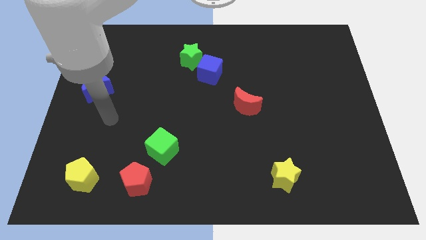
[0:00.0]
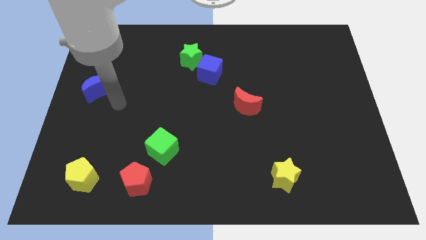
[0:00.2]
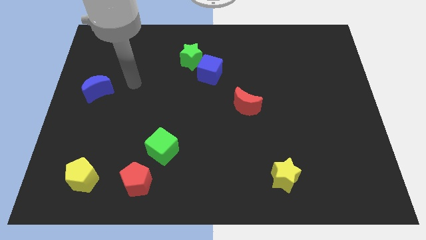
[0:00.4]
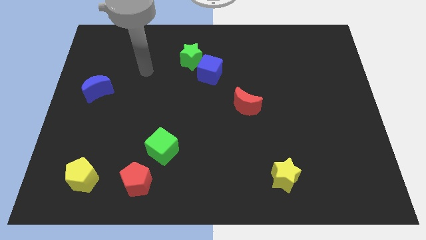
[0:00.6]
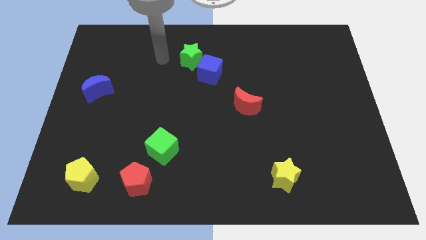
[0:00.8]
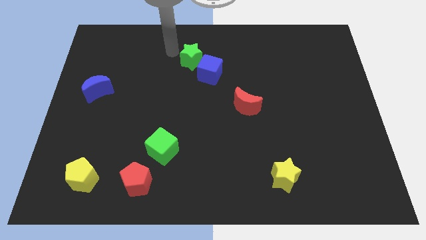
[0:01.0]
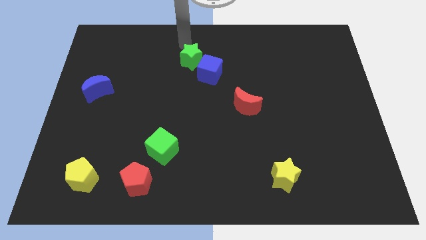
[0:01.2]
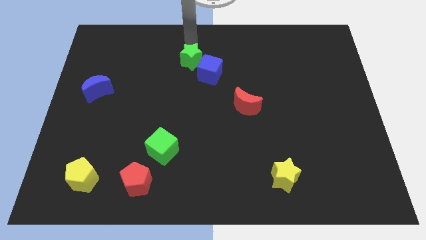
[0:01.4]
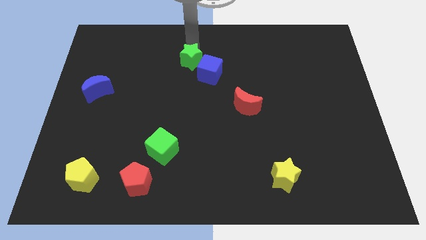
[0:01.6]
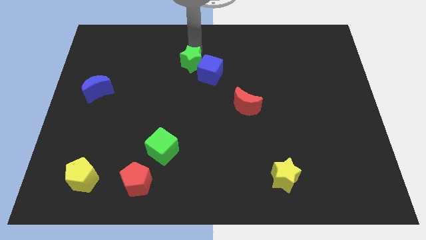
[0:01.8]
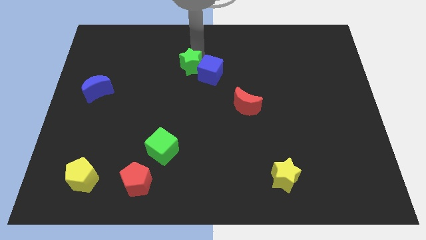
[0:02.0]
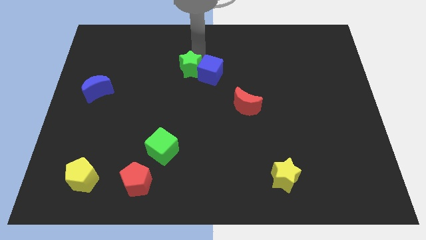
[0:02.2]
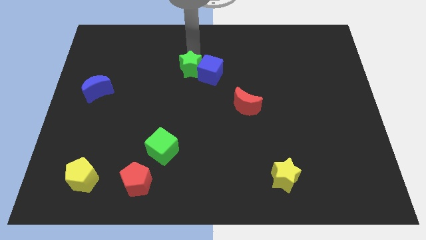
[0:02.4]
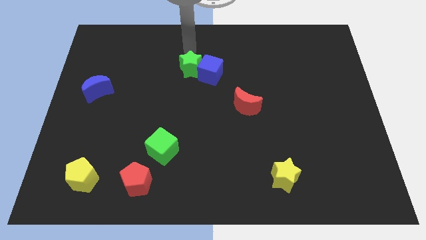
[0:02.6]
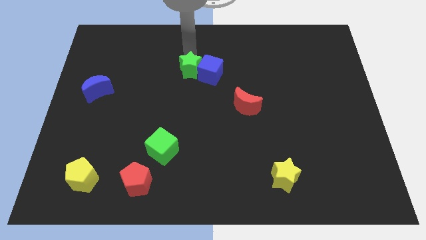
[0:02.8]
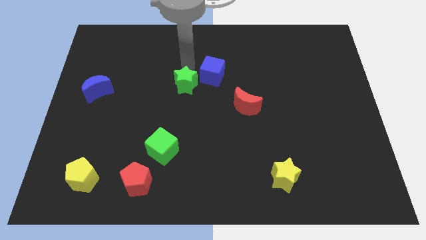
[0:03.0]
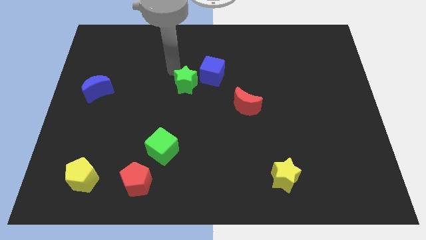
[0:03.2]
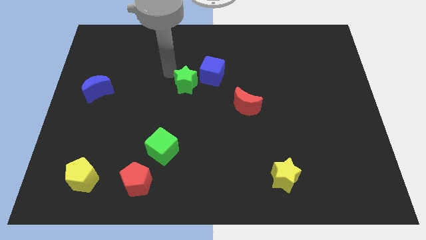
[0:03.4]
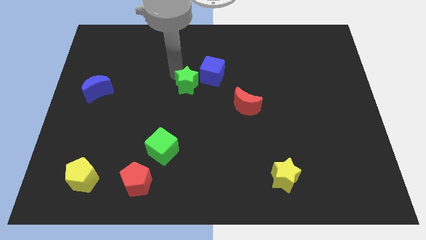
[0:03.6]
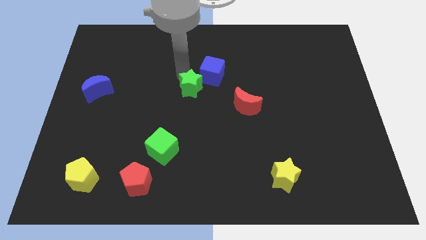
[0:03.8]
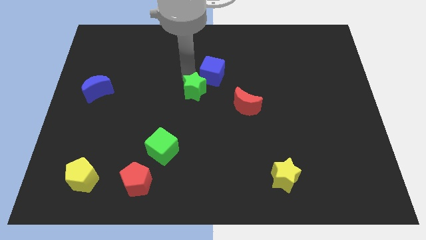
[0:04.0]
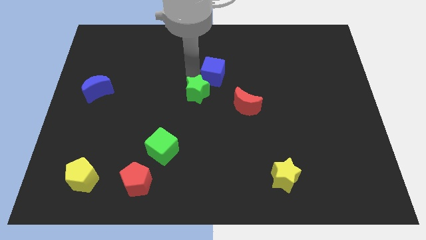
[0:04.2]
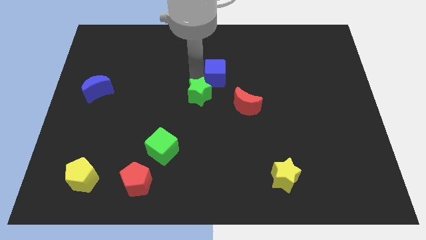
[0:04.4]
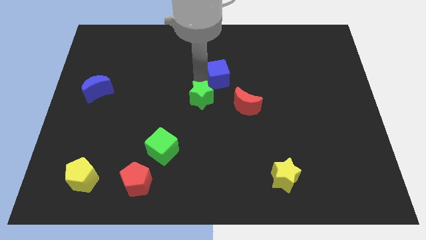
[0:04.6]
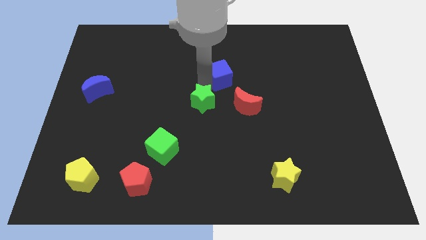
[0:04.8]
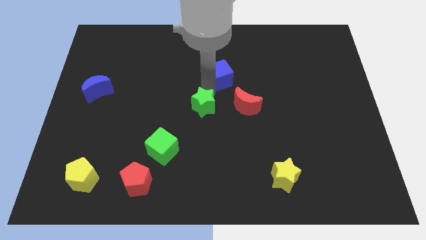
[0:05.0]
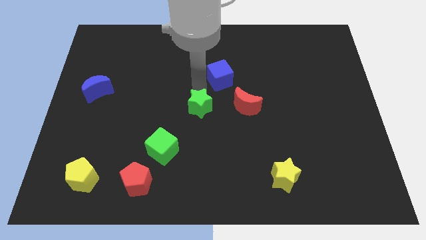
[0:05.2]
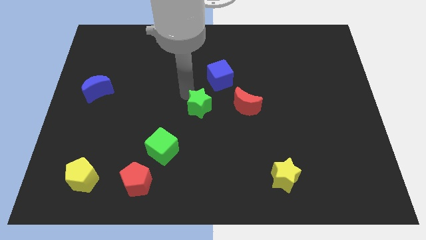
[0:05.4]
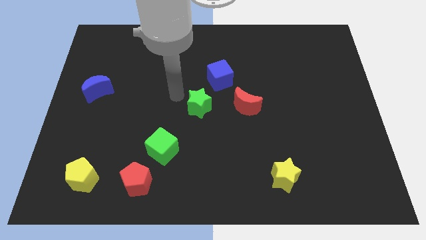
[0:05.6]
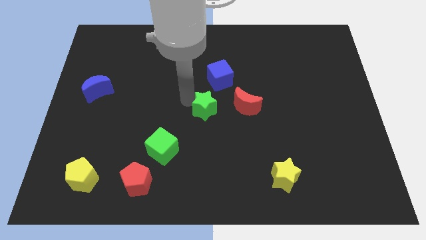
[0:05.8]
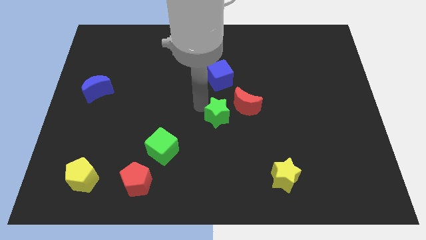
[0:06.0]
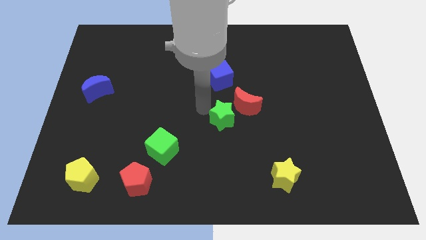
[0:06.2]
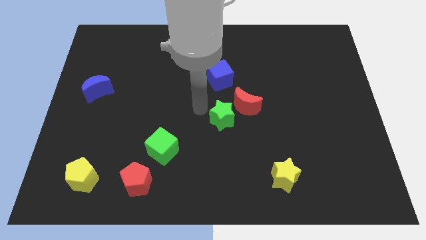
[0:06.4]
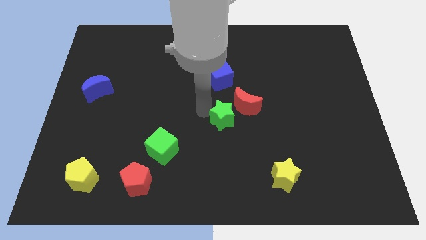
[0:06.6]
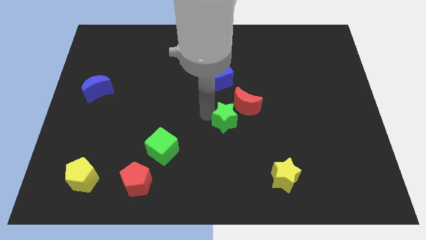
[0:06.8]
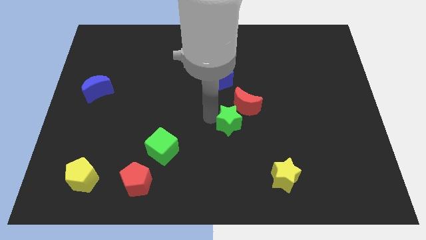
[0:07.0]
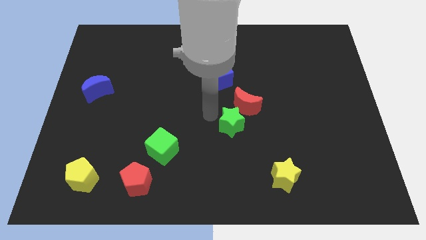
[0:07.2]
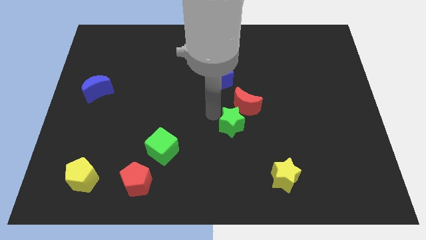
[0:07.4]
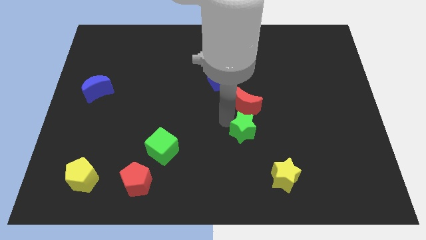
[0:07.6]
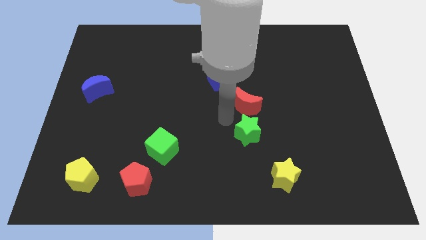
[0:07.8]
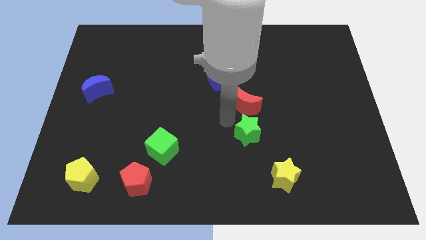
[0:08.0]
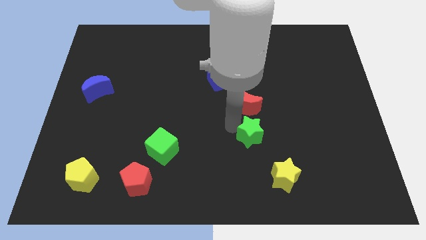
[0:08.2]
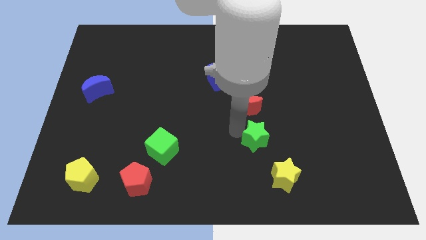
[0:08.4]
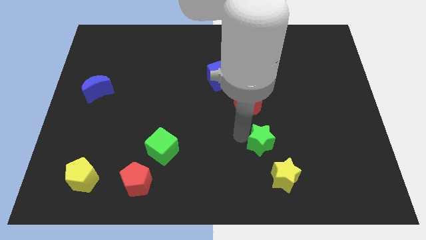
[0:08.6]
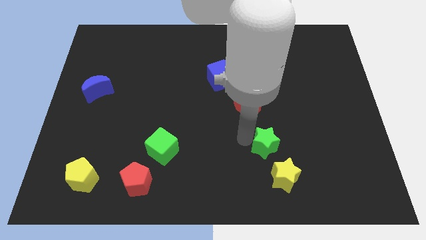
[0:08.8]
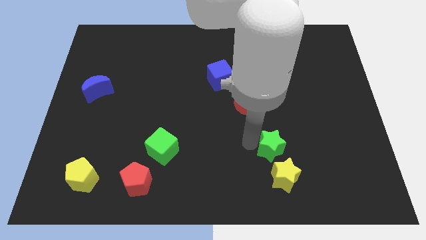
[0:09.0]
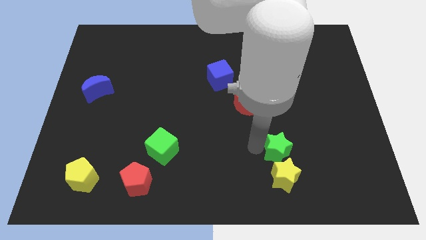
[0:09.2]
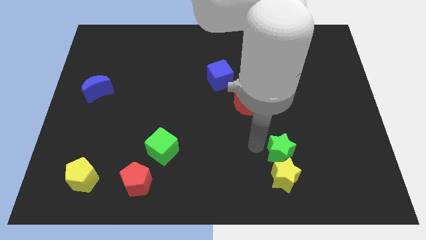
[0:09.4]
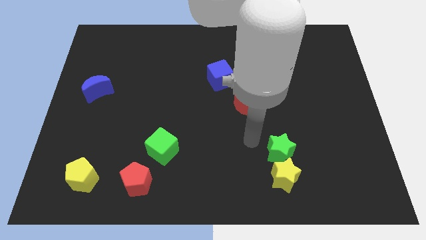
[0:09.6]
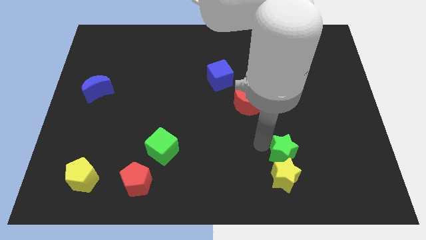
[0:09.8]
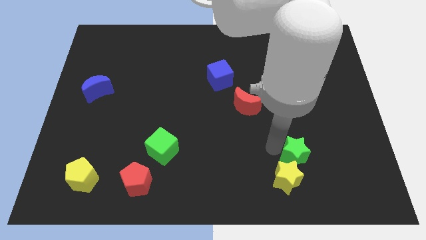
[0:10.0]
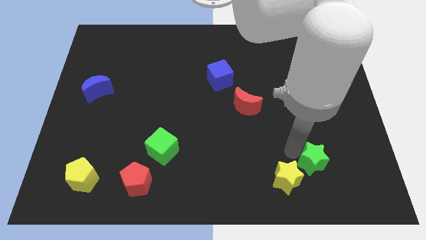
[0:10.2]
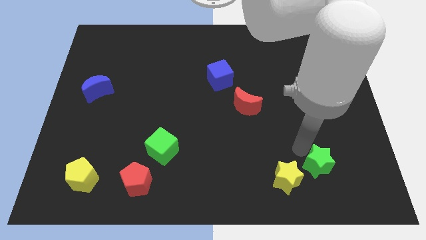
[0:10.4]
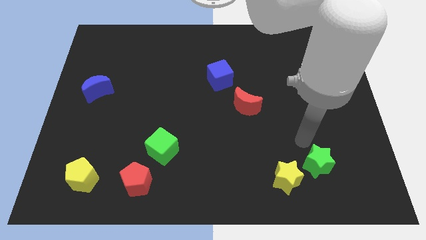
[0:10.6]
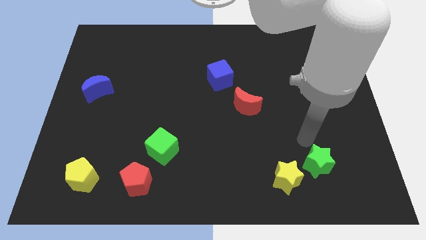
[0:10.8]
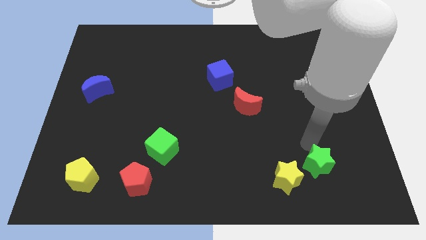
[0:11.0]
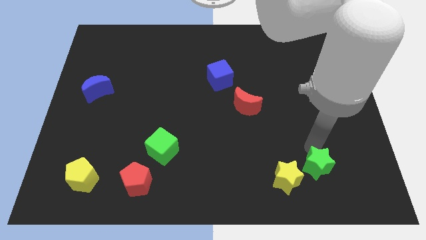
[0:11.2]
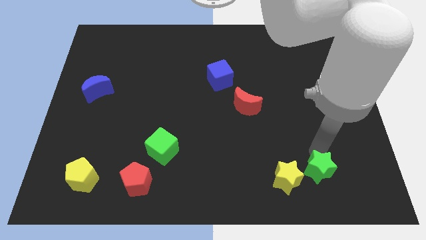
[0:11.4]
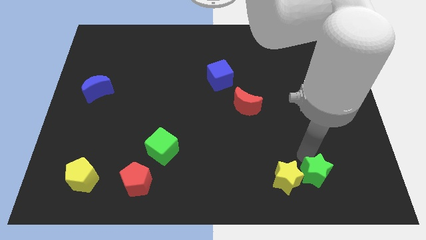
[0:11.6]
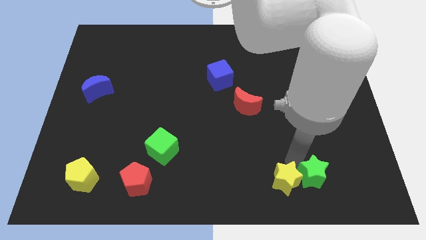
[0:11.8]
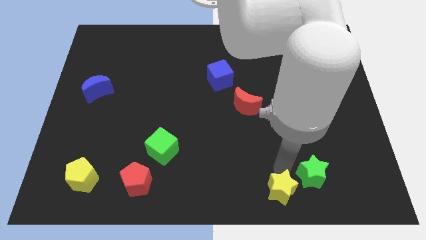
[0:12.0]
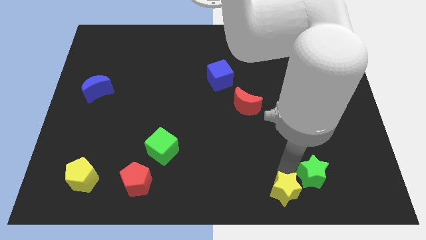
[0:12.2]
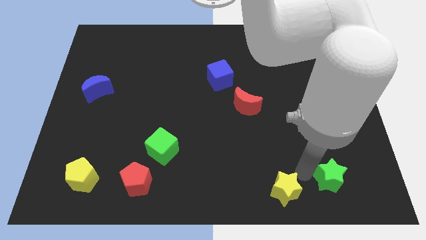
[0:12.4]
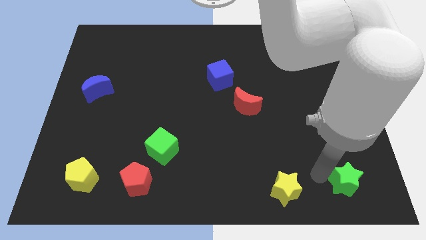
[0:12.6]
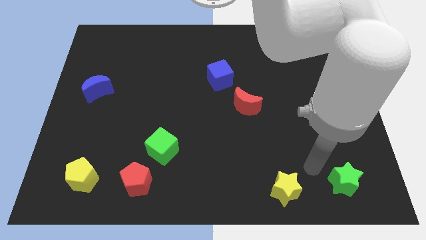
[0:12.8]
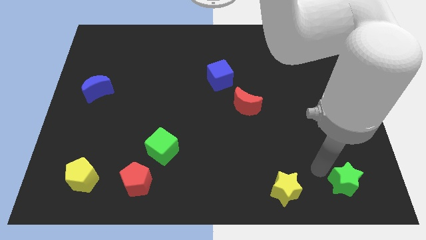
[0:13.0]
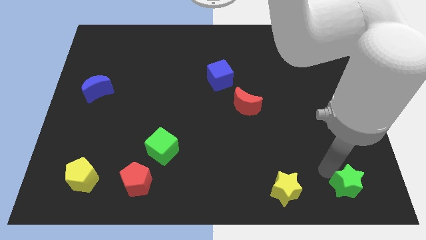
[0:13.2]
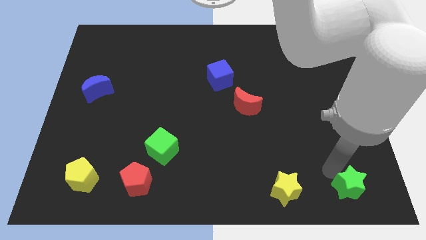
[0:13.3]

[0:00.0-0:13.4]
slide the green star to the bottom right

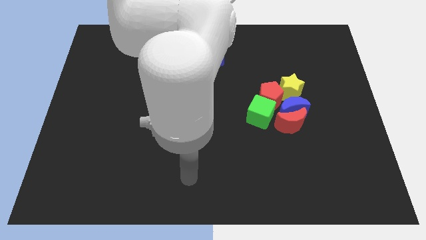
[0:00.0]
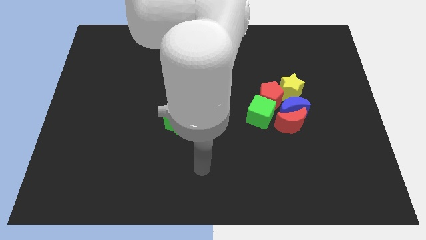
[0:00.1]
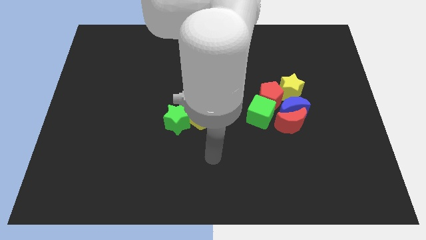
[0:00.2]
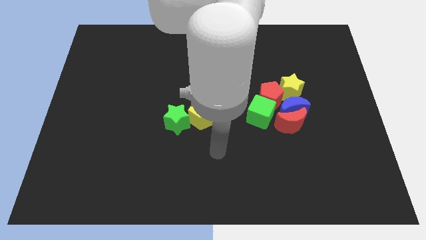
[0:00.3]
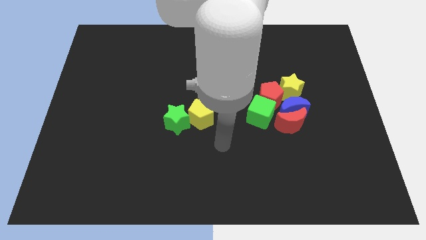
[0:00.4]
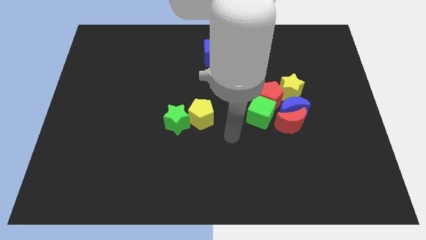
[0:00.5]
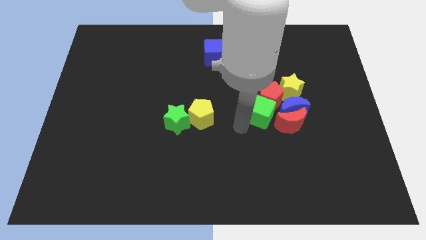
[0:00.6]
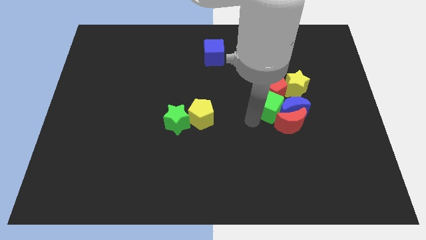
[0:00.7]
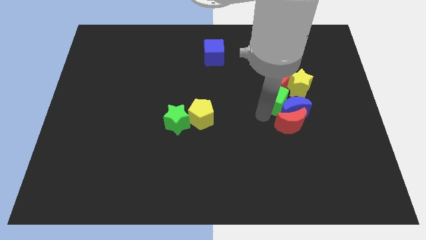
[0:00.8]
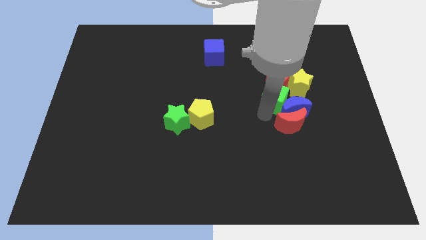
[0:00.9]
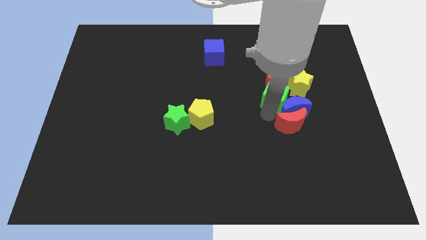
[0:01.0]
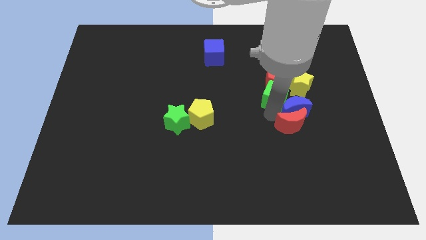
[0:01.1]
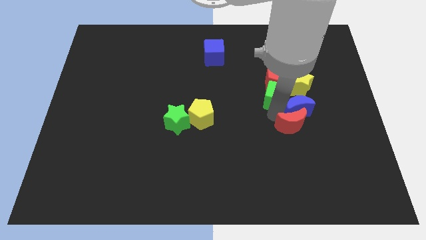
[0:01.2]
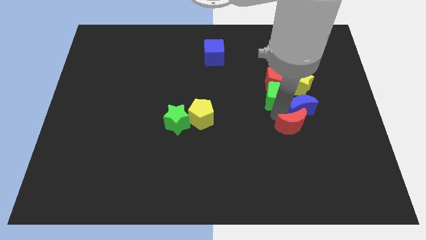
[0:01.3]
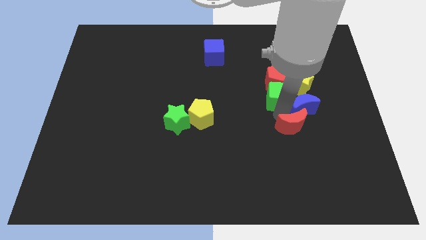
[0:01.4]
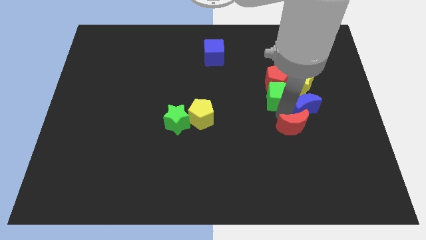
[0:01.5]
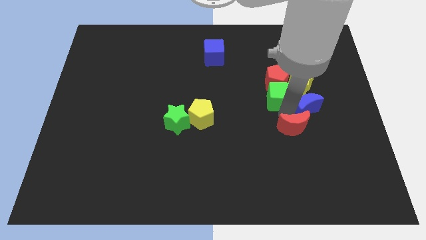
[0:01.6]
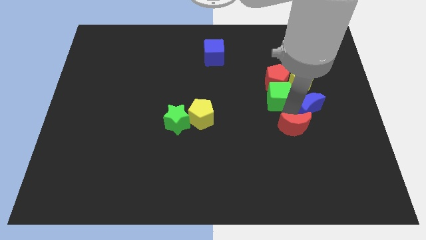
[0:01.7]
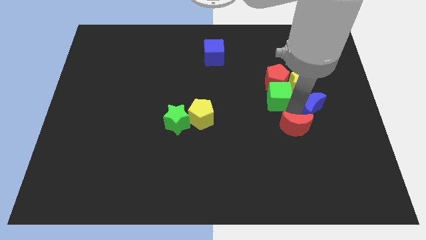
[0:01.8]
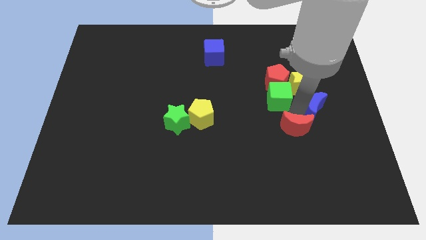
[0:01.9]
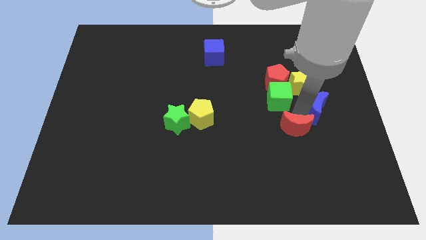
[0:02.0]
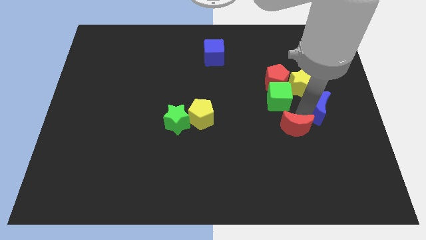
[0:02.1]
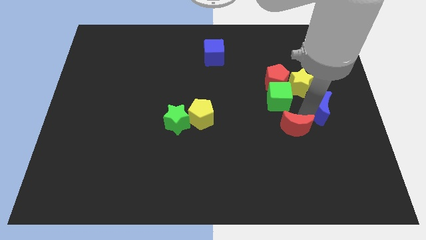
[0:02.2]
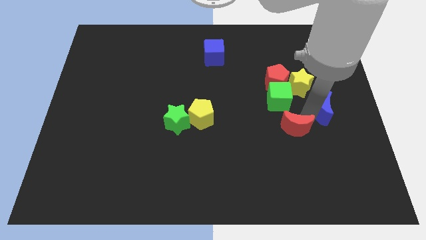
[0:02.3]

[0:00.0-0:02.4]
put the blue moon to the right side
